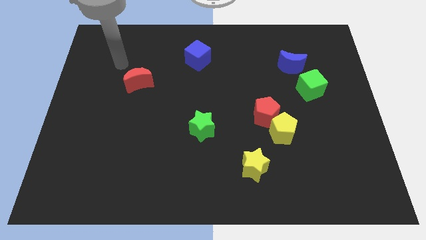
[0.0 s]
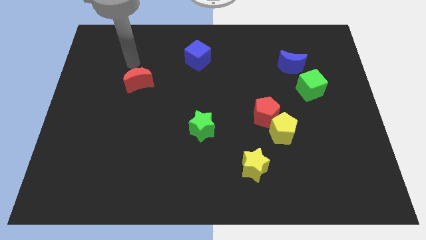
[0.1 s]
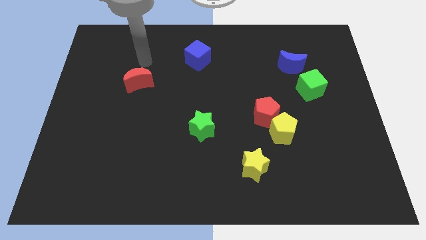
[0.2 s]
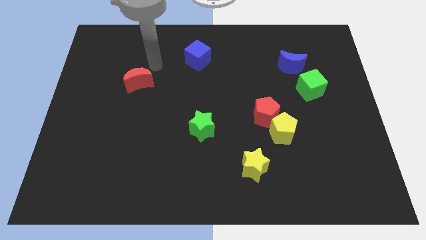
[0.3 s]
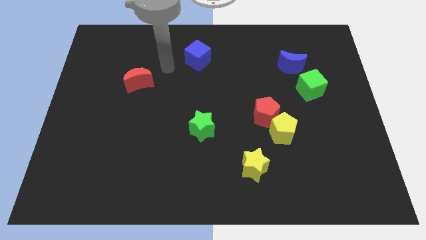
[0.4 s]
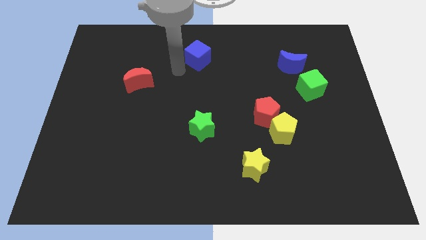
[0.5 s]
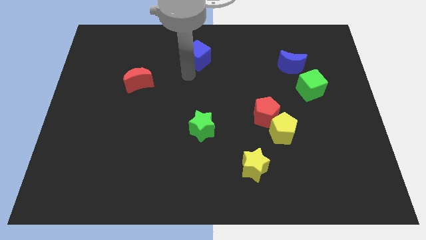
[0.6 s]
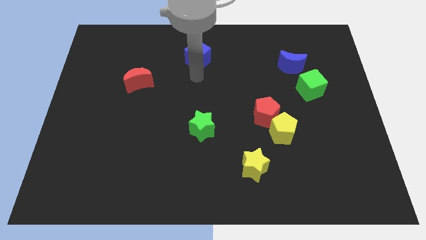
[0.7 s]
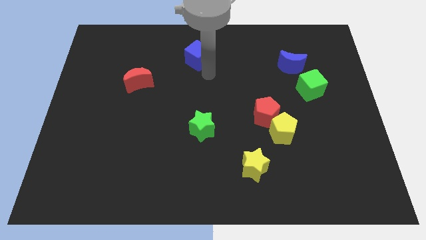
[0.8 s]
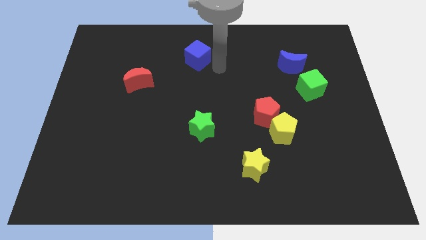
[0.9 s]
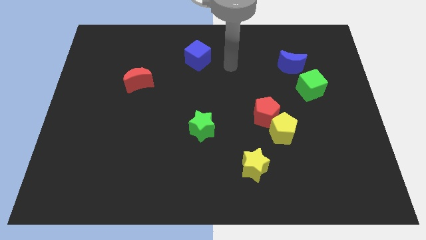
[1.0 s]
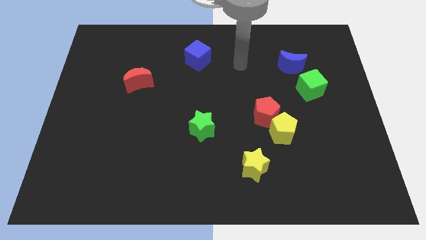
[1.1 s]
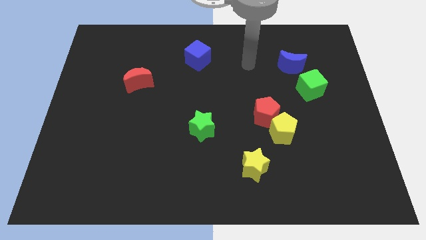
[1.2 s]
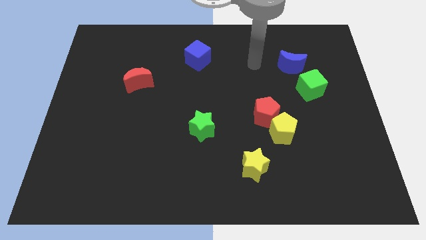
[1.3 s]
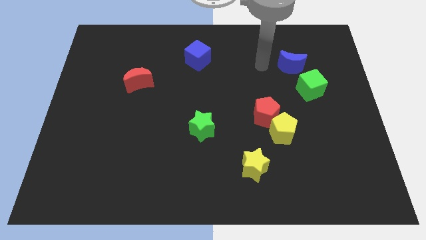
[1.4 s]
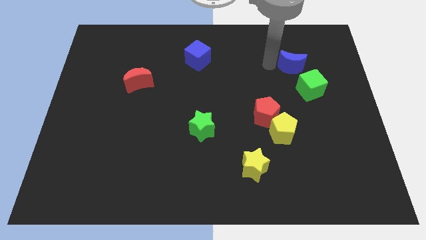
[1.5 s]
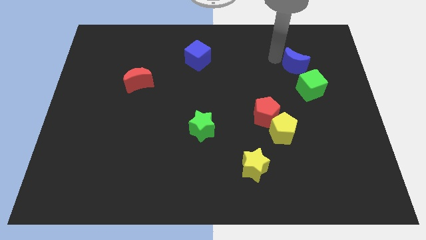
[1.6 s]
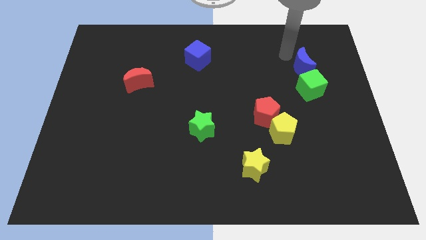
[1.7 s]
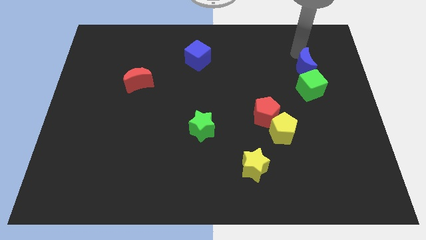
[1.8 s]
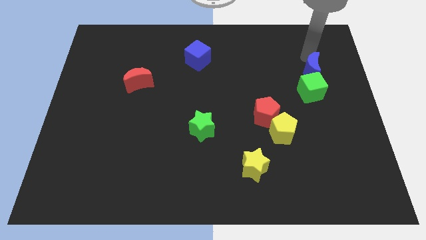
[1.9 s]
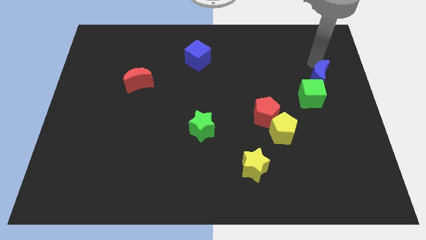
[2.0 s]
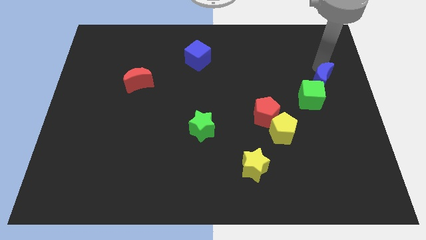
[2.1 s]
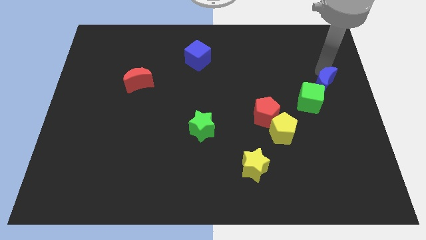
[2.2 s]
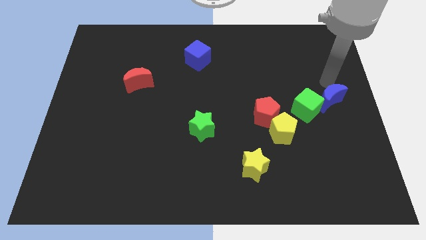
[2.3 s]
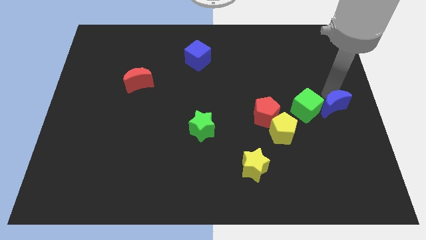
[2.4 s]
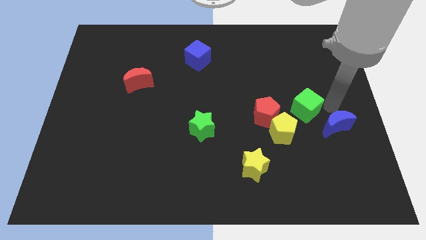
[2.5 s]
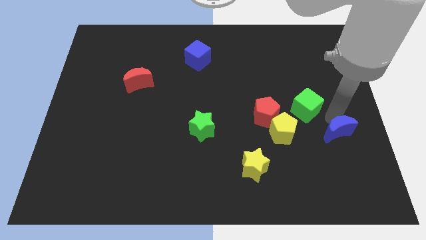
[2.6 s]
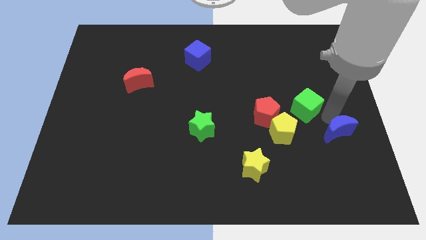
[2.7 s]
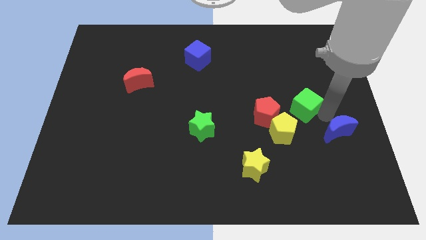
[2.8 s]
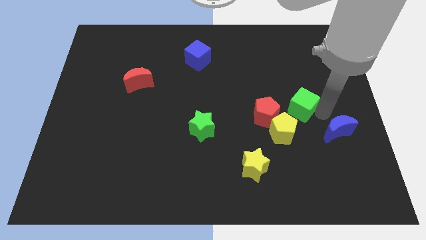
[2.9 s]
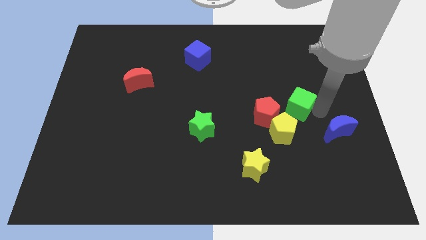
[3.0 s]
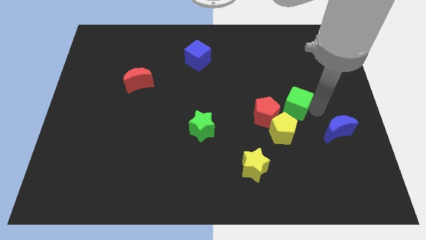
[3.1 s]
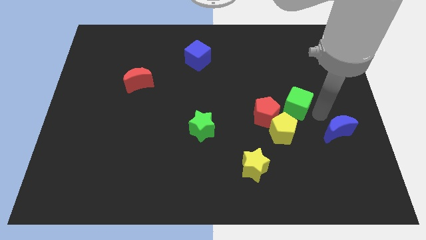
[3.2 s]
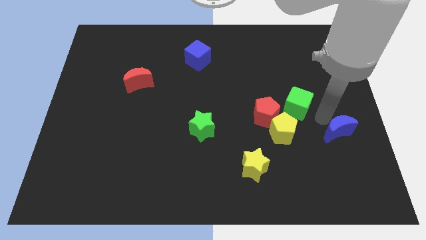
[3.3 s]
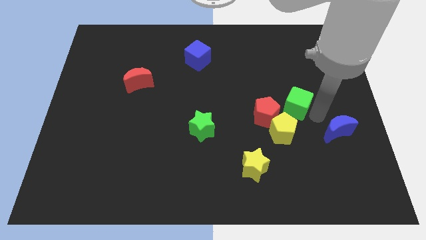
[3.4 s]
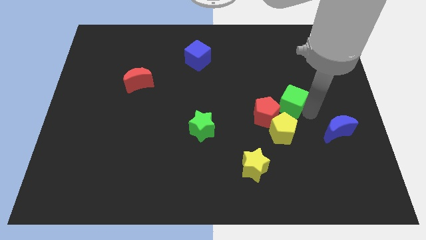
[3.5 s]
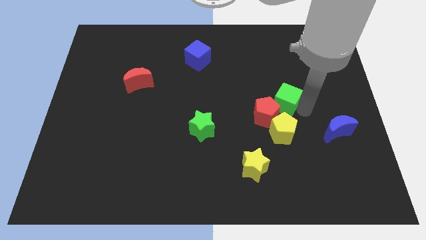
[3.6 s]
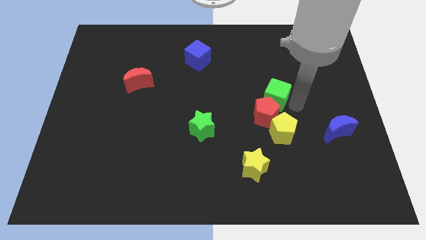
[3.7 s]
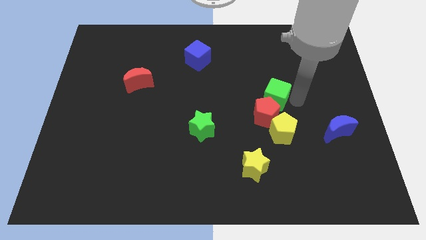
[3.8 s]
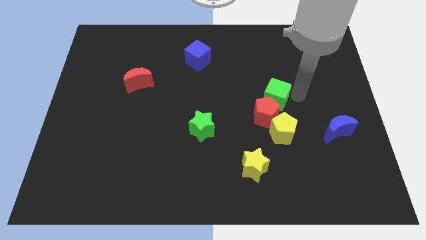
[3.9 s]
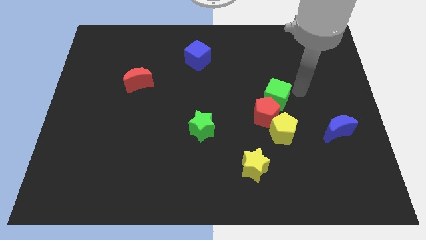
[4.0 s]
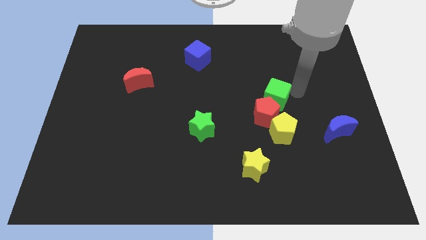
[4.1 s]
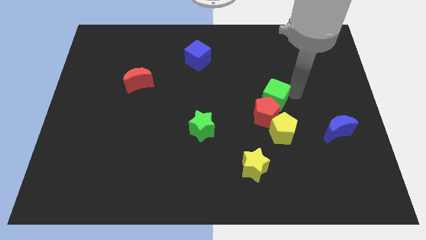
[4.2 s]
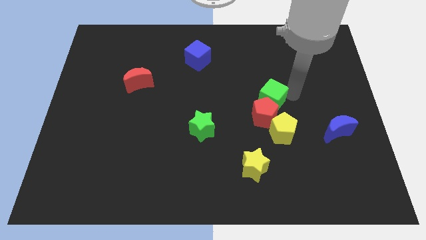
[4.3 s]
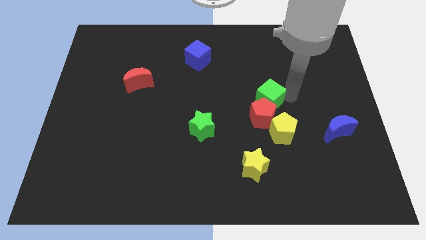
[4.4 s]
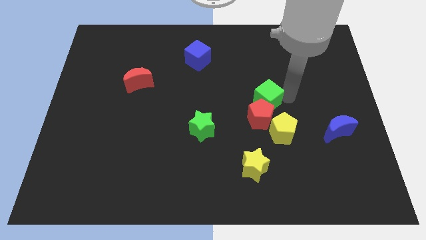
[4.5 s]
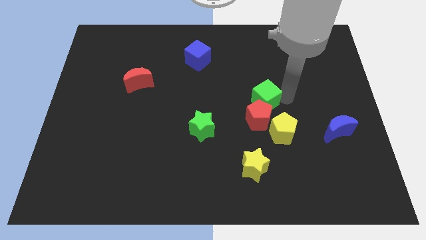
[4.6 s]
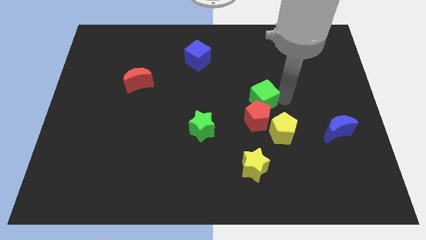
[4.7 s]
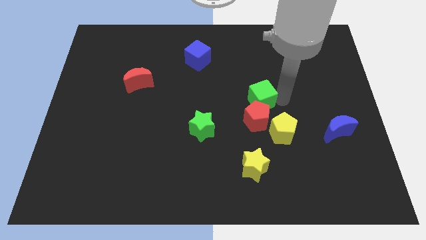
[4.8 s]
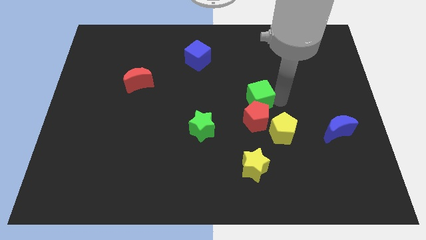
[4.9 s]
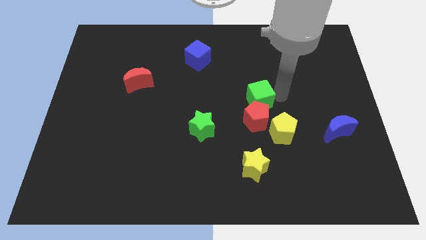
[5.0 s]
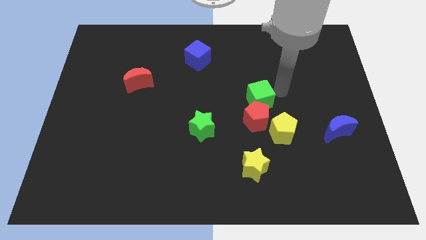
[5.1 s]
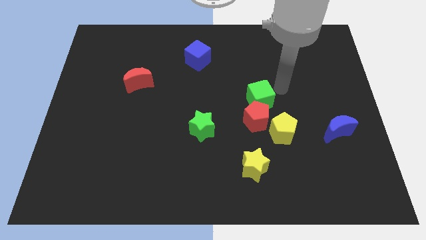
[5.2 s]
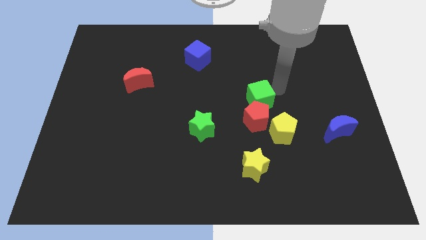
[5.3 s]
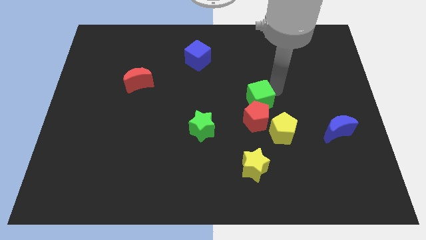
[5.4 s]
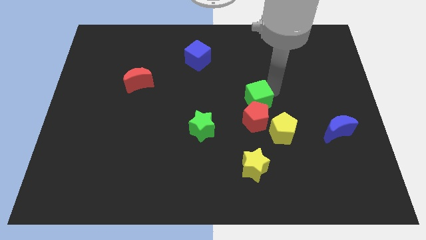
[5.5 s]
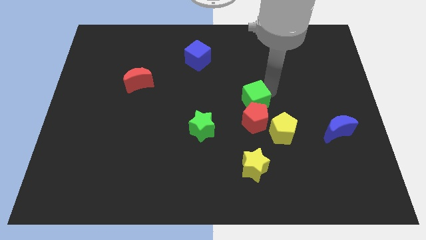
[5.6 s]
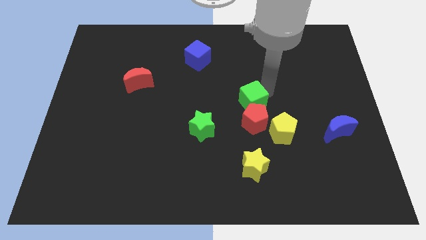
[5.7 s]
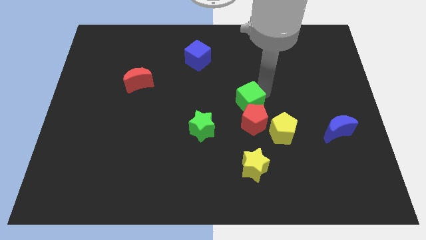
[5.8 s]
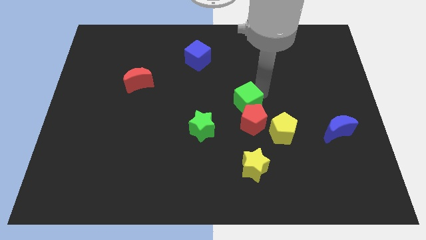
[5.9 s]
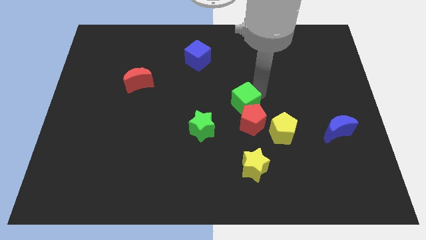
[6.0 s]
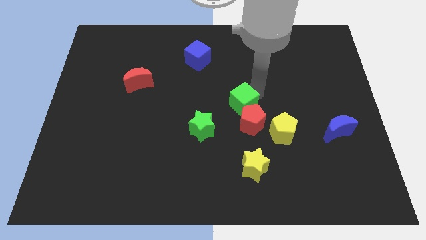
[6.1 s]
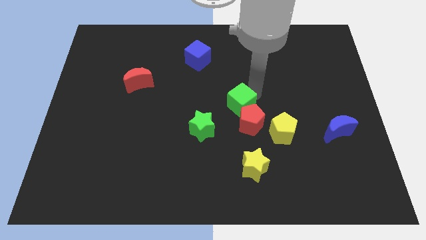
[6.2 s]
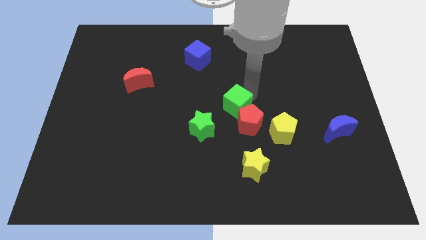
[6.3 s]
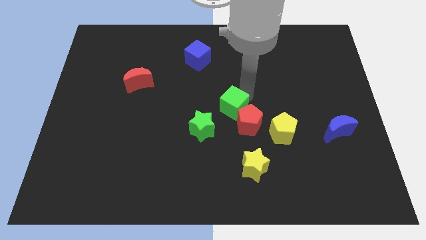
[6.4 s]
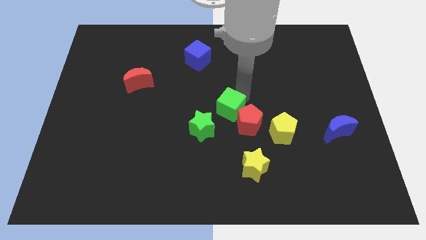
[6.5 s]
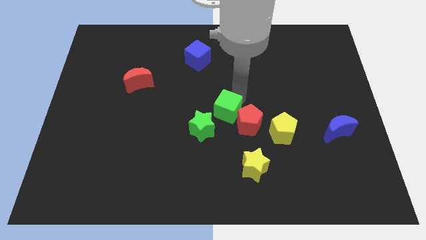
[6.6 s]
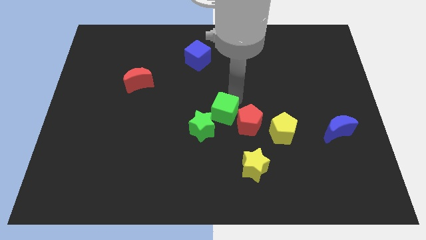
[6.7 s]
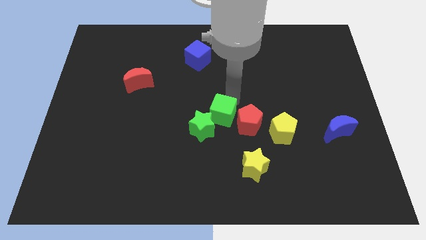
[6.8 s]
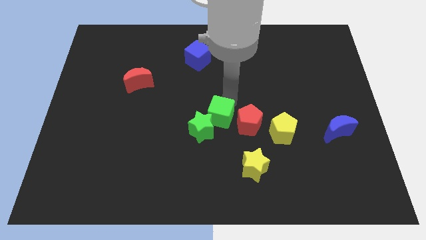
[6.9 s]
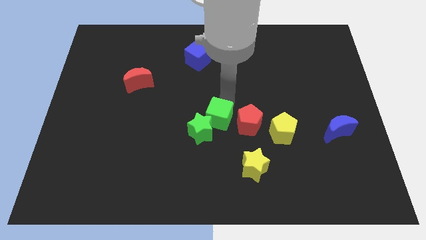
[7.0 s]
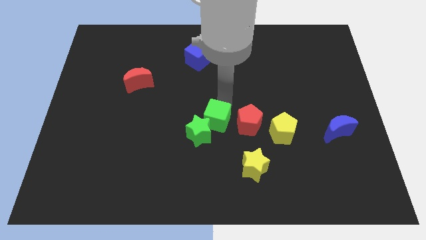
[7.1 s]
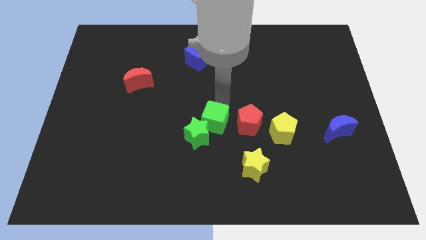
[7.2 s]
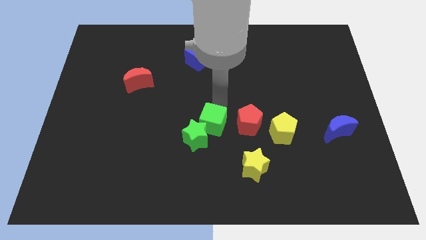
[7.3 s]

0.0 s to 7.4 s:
slide the green cube down and to the left diagonally

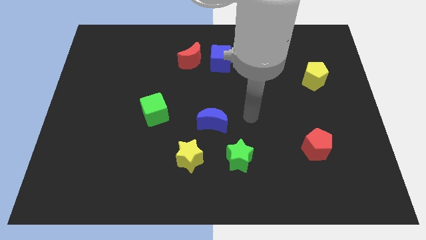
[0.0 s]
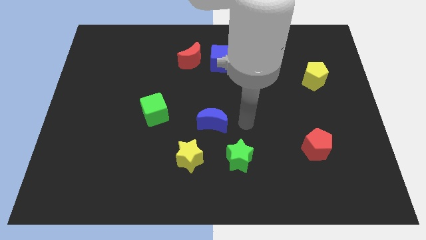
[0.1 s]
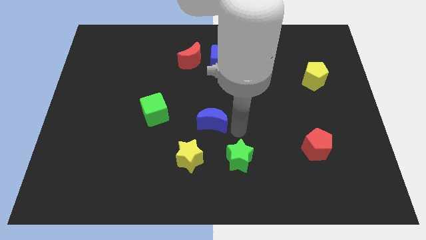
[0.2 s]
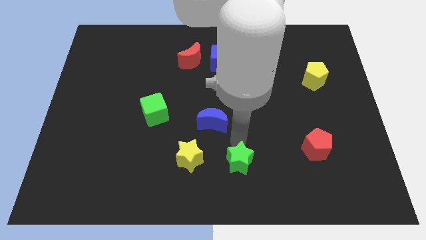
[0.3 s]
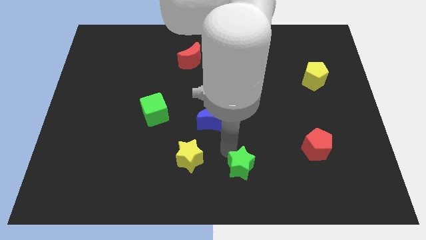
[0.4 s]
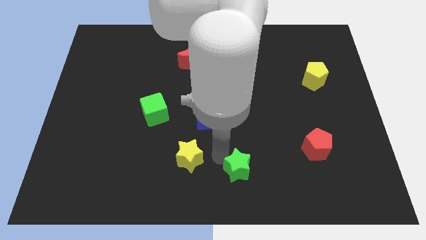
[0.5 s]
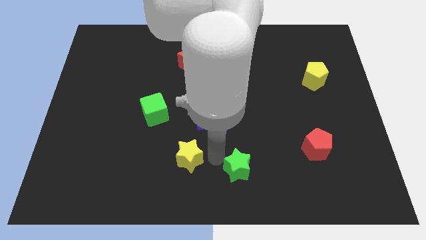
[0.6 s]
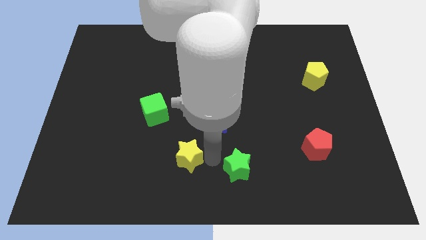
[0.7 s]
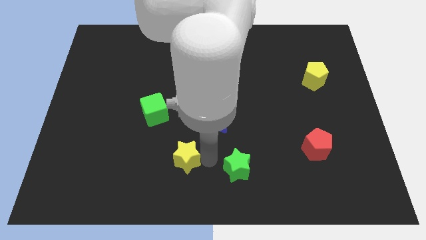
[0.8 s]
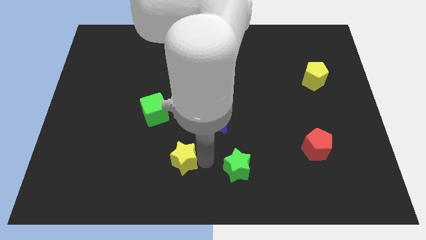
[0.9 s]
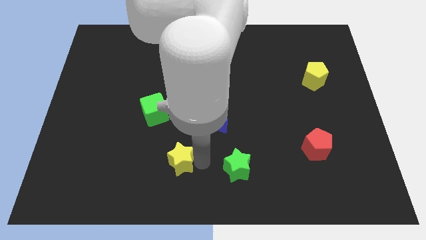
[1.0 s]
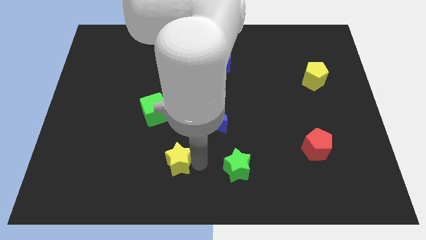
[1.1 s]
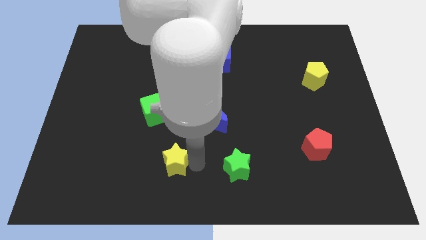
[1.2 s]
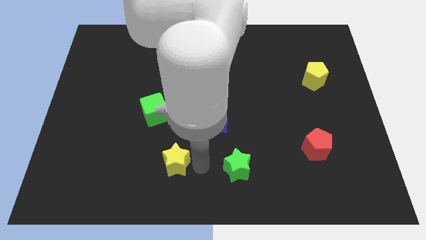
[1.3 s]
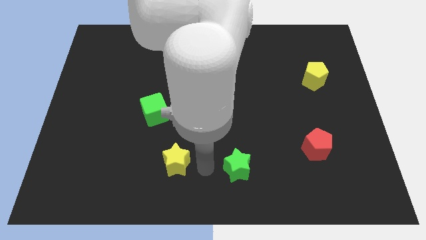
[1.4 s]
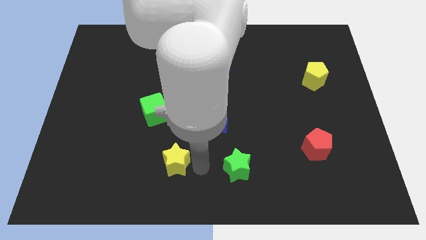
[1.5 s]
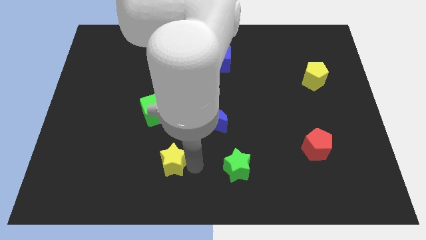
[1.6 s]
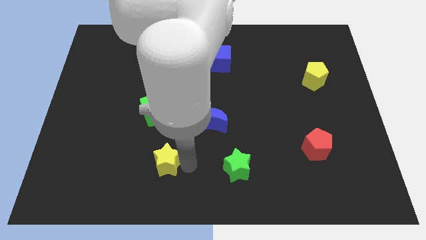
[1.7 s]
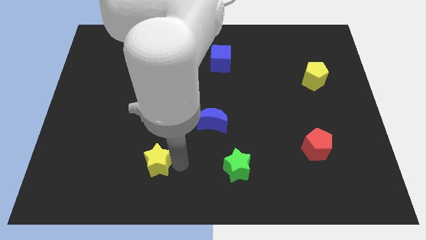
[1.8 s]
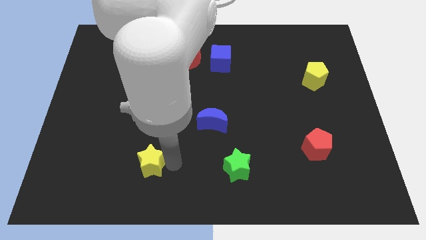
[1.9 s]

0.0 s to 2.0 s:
push the yellow star somewhat left
